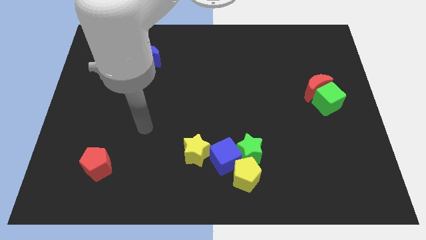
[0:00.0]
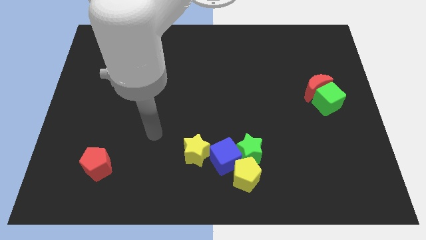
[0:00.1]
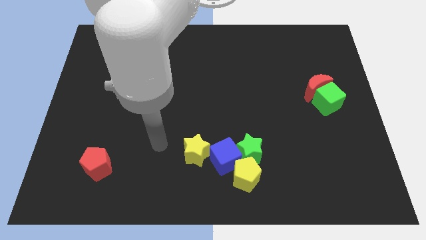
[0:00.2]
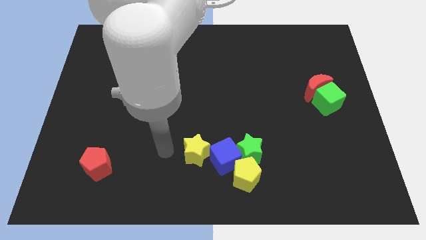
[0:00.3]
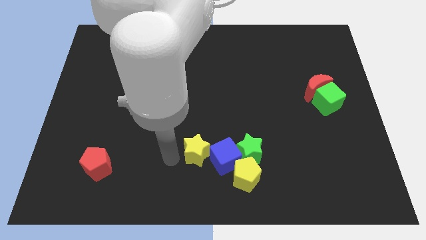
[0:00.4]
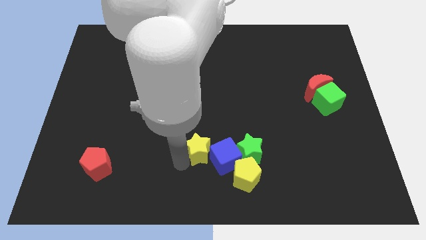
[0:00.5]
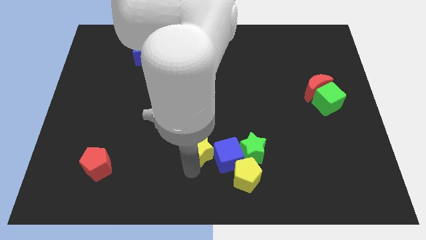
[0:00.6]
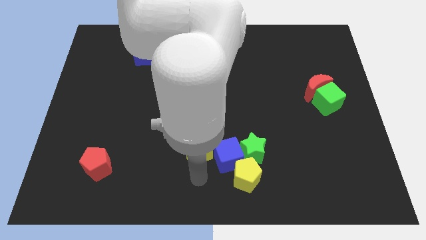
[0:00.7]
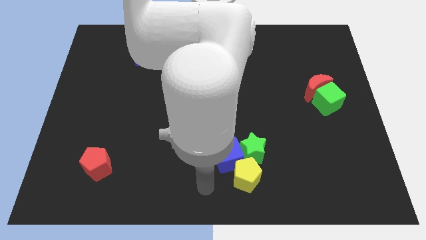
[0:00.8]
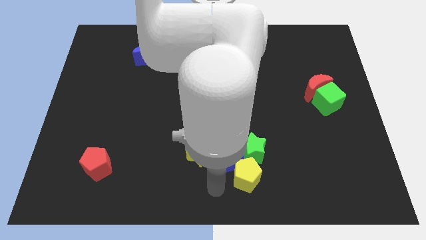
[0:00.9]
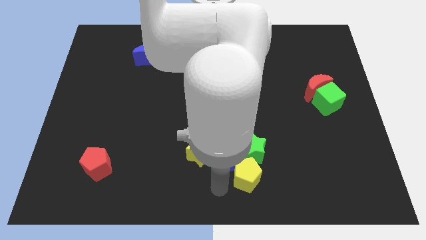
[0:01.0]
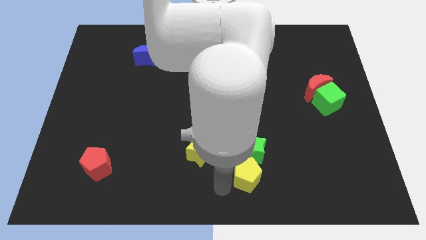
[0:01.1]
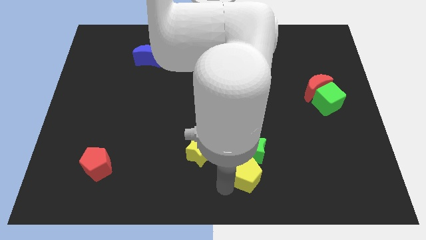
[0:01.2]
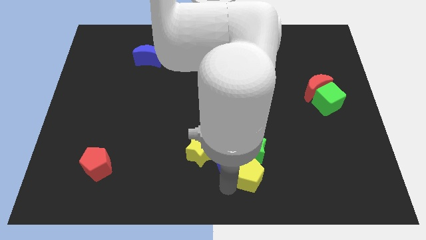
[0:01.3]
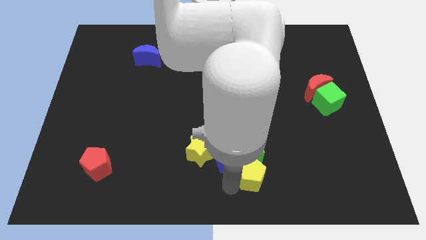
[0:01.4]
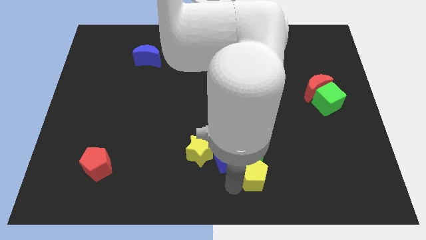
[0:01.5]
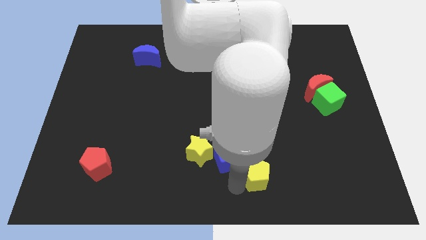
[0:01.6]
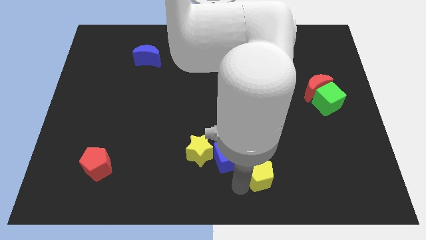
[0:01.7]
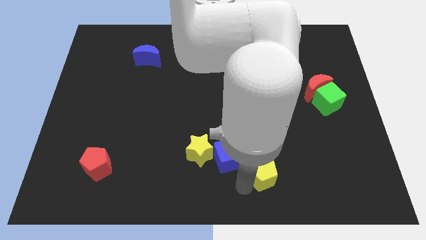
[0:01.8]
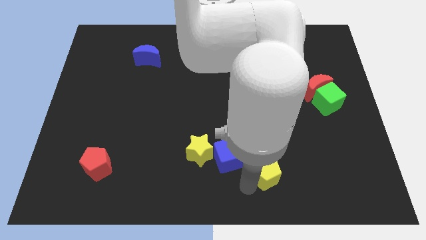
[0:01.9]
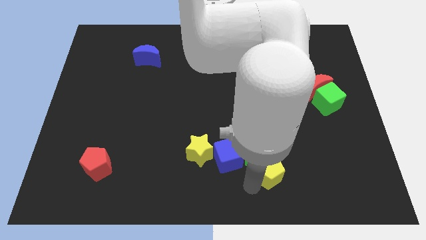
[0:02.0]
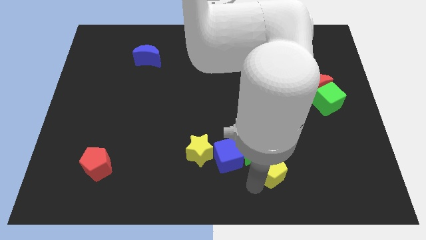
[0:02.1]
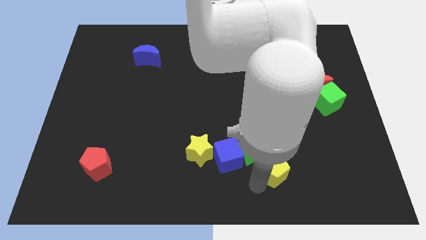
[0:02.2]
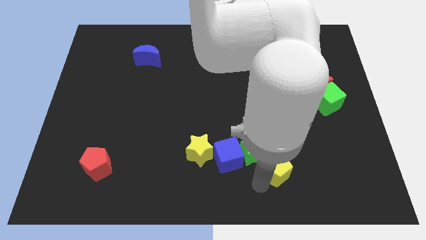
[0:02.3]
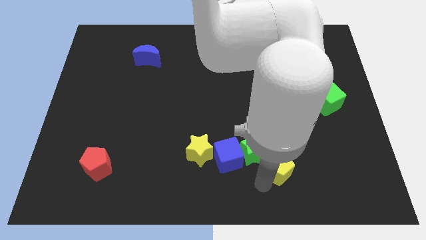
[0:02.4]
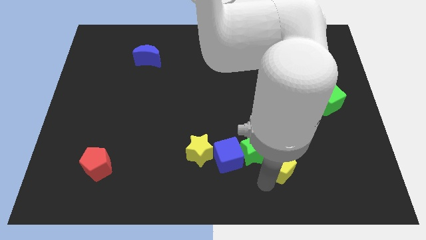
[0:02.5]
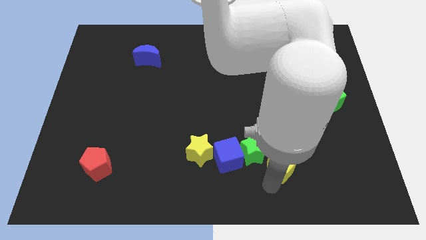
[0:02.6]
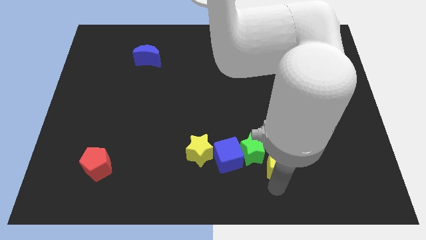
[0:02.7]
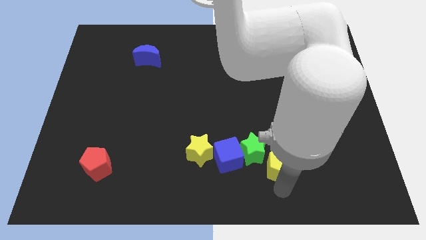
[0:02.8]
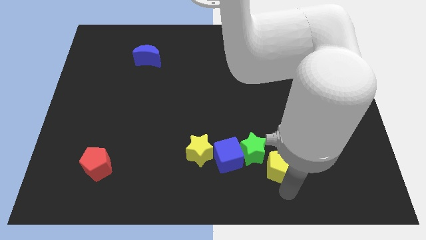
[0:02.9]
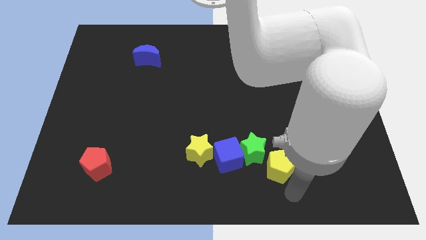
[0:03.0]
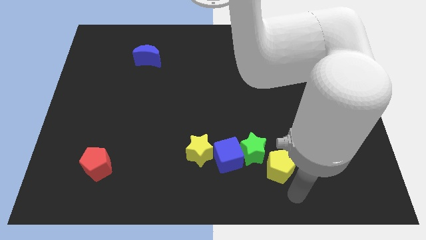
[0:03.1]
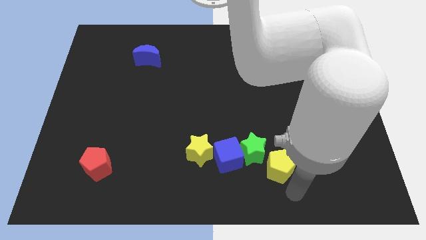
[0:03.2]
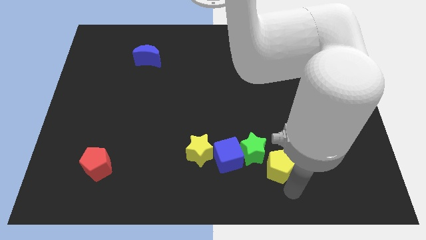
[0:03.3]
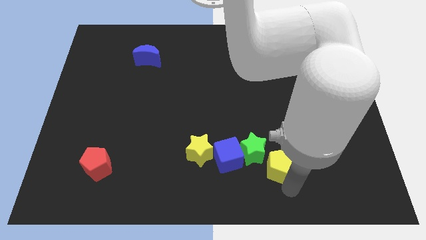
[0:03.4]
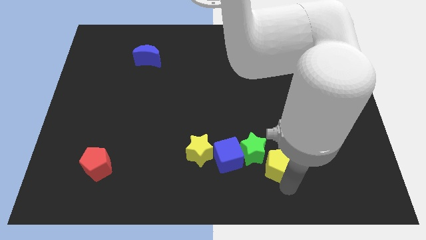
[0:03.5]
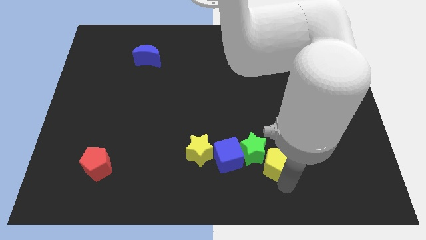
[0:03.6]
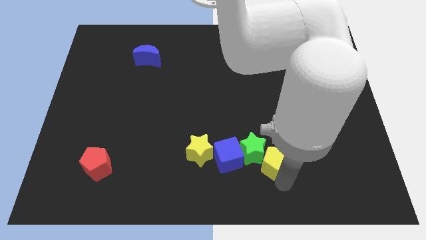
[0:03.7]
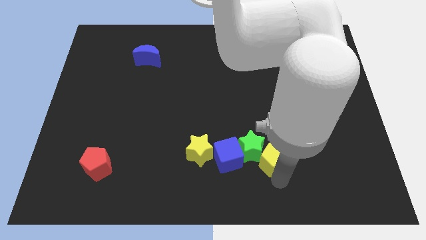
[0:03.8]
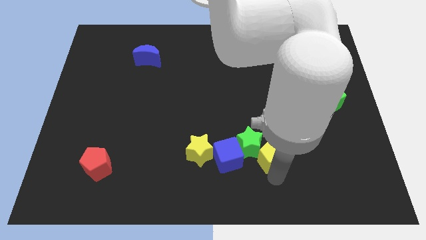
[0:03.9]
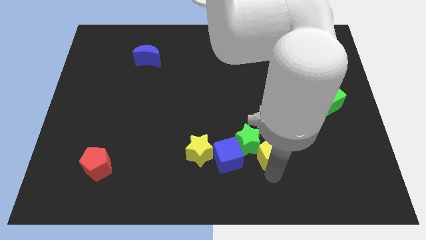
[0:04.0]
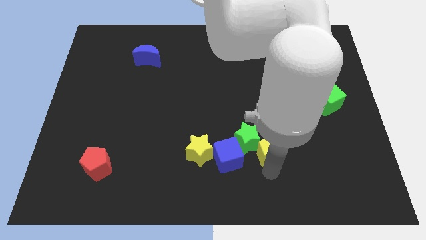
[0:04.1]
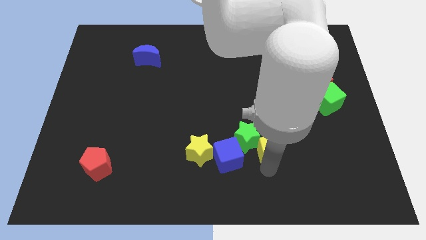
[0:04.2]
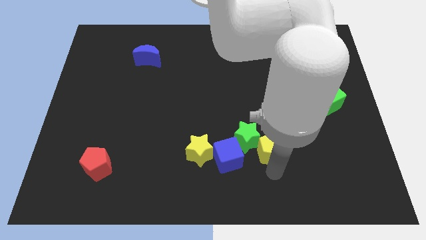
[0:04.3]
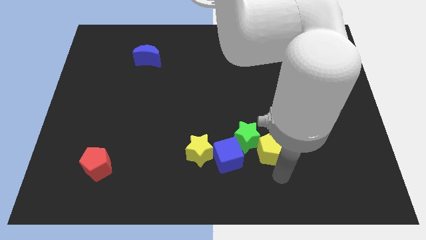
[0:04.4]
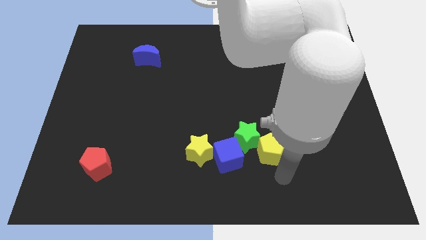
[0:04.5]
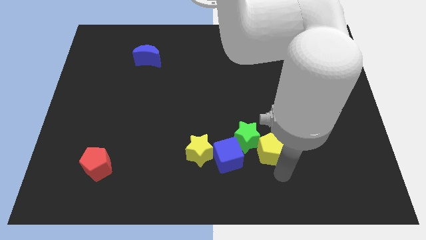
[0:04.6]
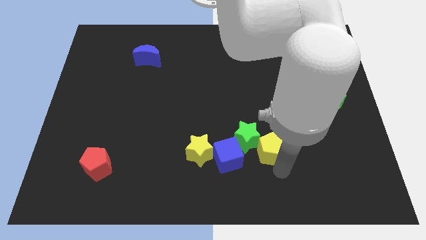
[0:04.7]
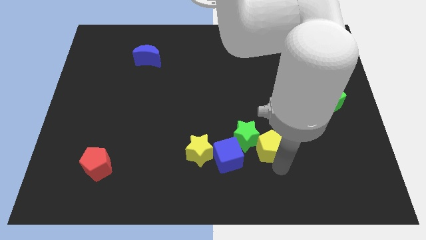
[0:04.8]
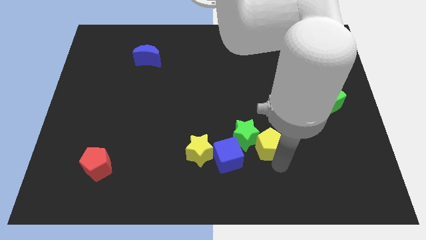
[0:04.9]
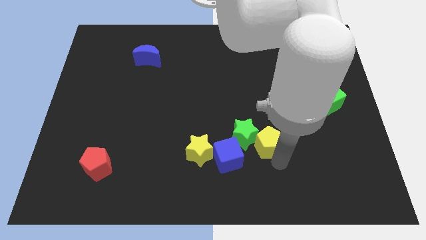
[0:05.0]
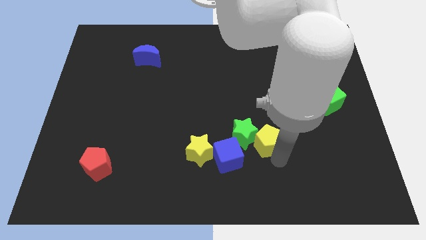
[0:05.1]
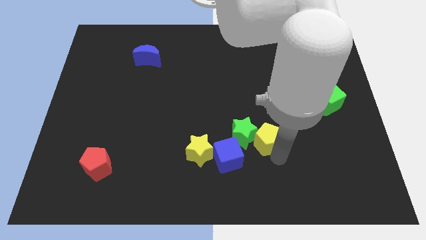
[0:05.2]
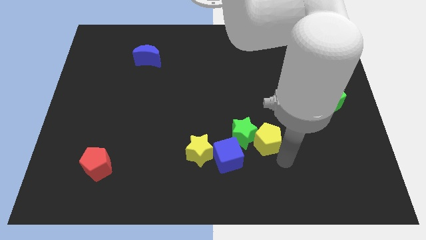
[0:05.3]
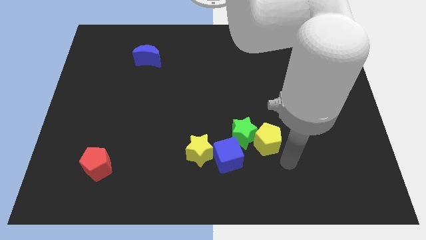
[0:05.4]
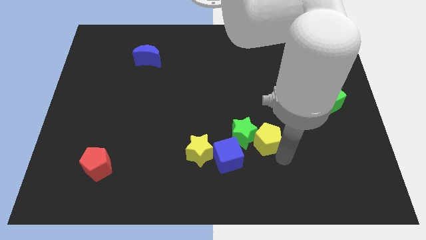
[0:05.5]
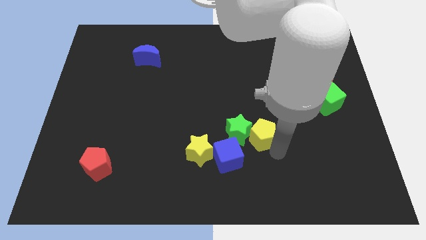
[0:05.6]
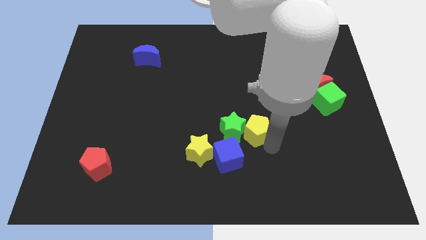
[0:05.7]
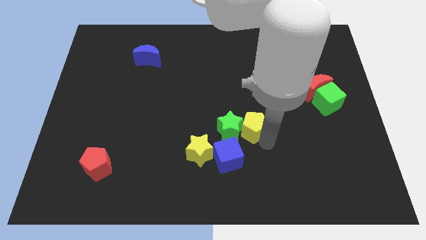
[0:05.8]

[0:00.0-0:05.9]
slide the yellow pentagon to the middle
